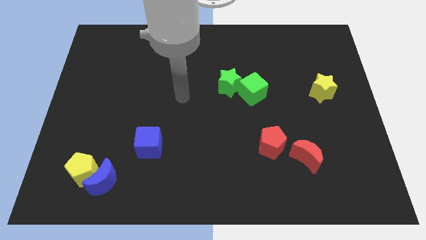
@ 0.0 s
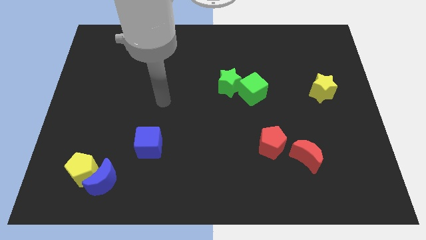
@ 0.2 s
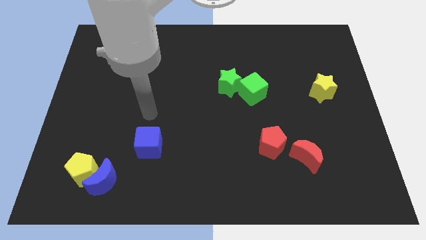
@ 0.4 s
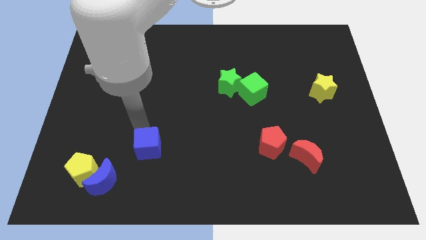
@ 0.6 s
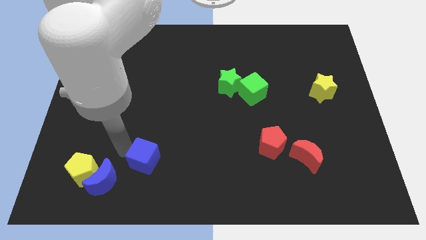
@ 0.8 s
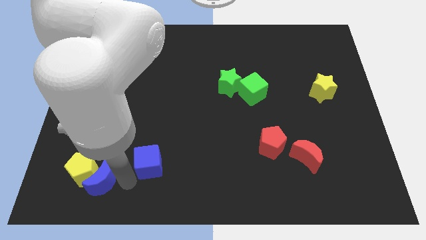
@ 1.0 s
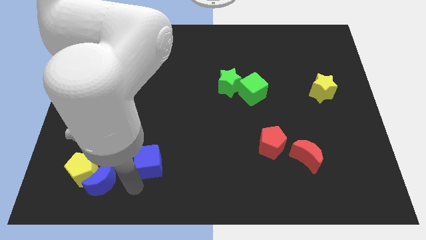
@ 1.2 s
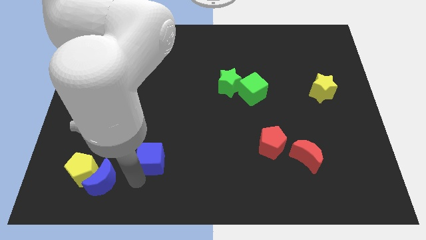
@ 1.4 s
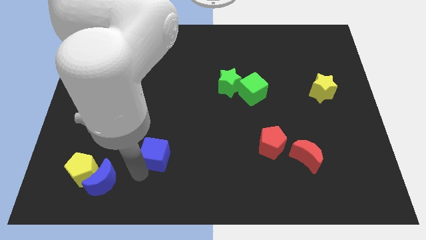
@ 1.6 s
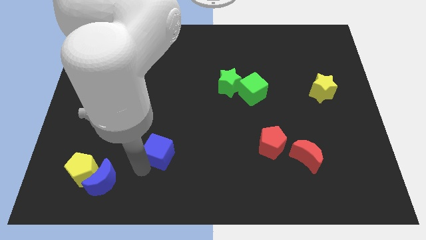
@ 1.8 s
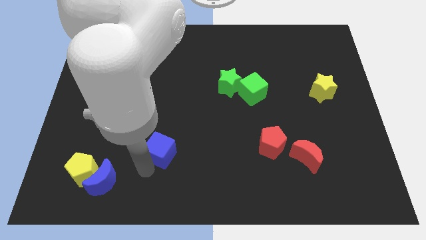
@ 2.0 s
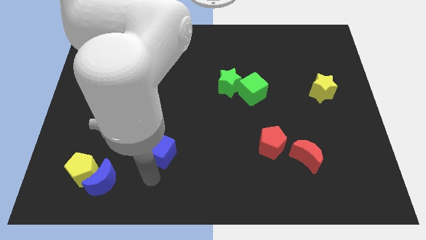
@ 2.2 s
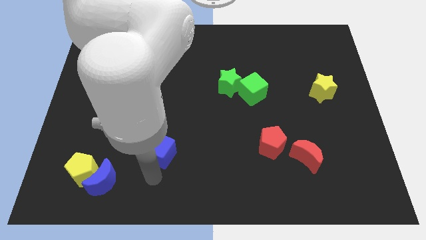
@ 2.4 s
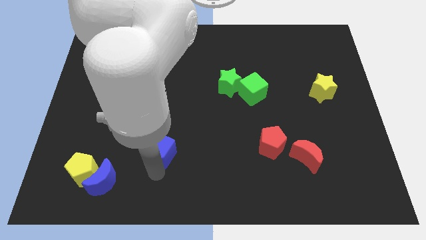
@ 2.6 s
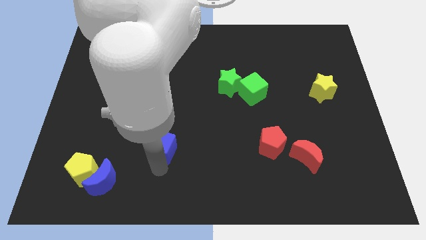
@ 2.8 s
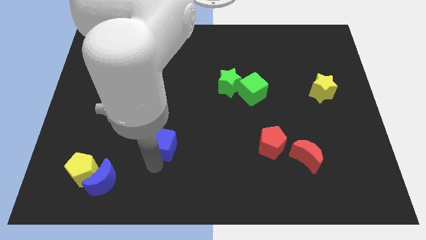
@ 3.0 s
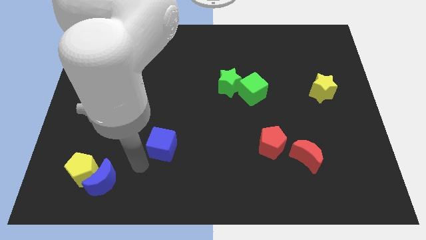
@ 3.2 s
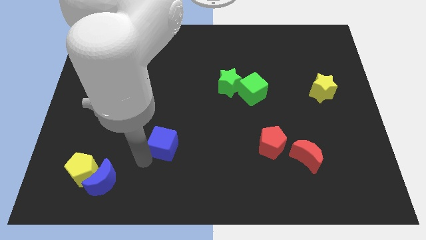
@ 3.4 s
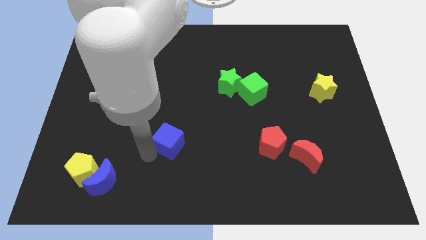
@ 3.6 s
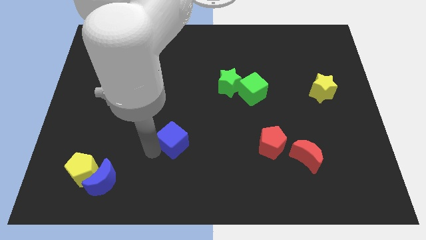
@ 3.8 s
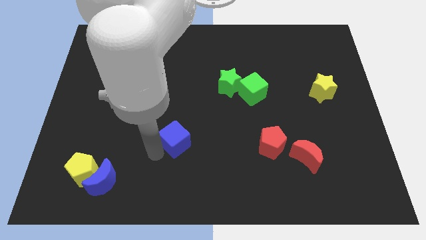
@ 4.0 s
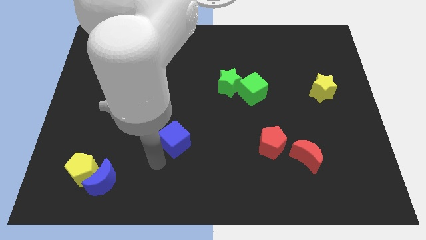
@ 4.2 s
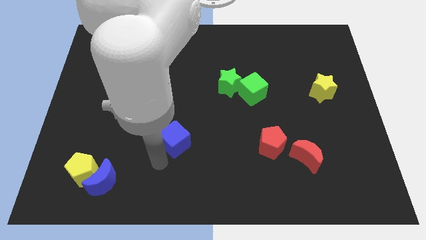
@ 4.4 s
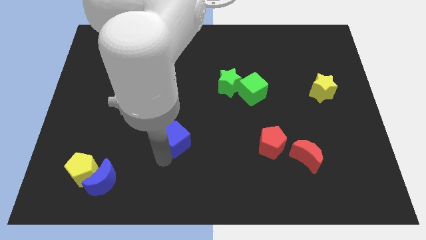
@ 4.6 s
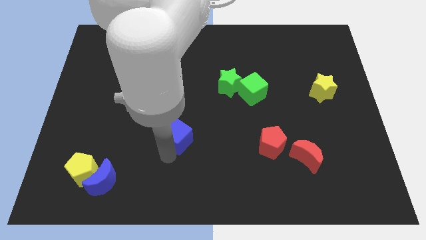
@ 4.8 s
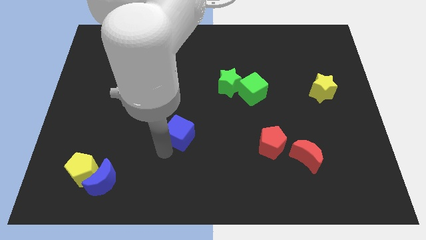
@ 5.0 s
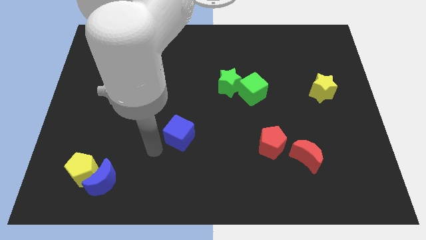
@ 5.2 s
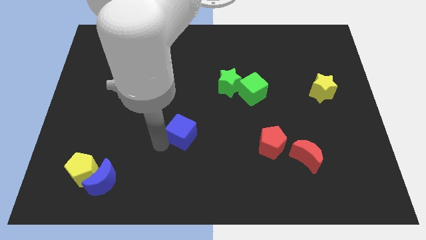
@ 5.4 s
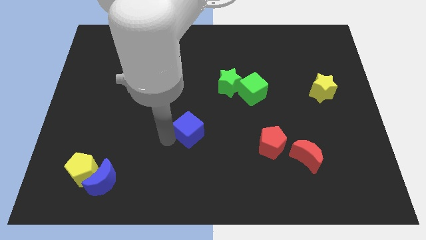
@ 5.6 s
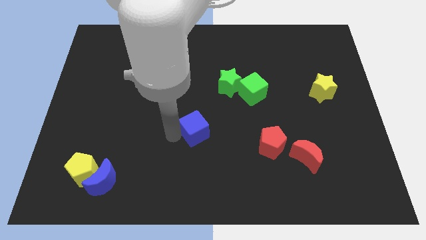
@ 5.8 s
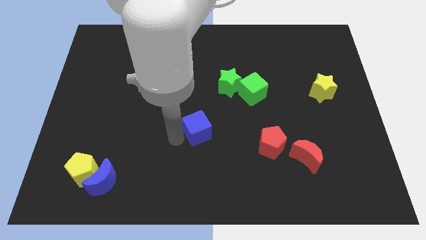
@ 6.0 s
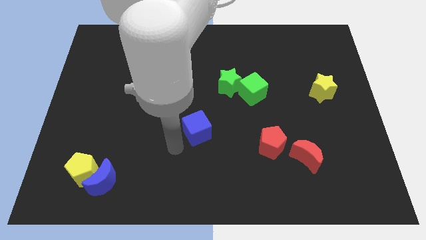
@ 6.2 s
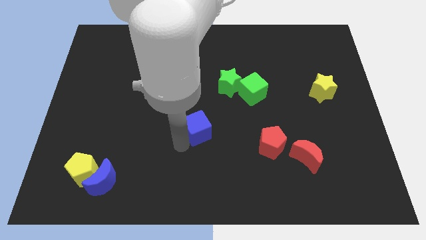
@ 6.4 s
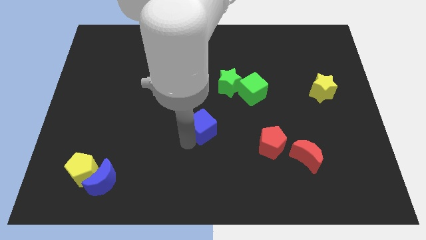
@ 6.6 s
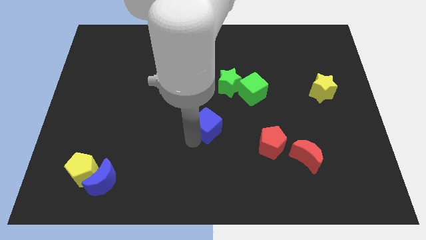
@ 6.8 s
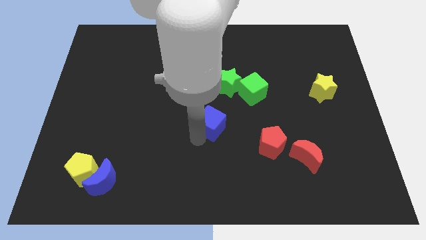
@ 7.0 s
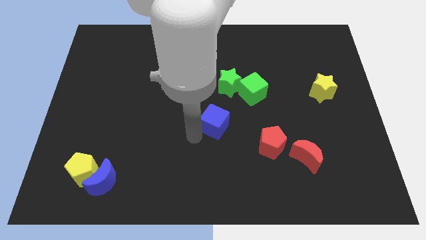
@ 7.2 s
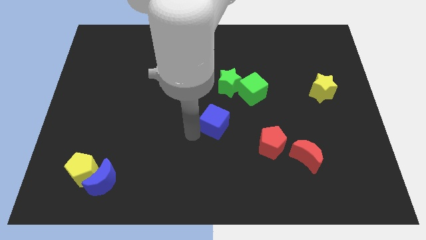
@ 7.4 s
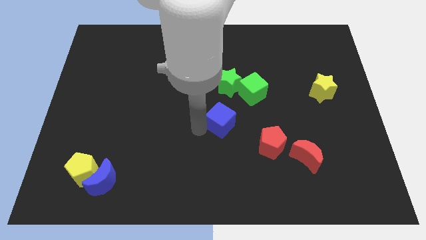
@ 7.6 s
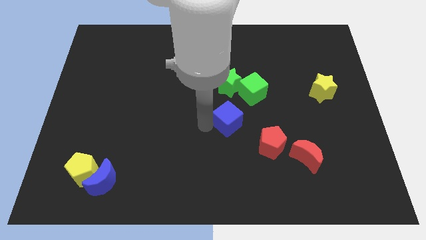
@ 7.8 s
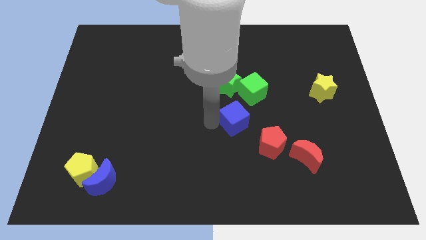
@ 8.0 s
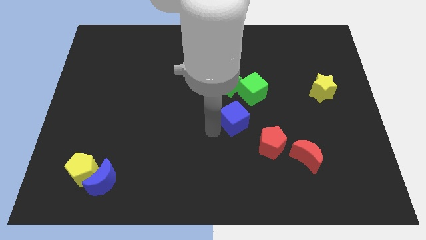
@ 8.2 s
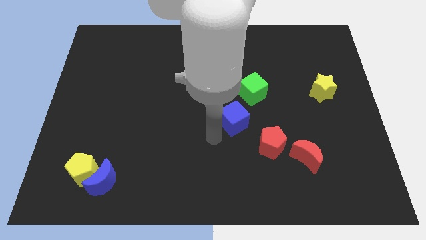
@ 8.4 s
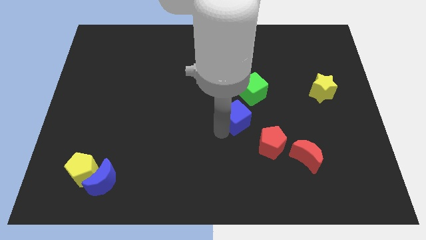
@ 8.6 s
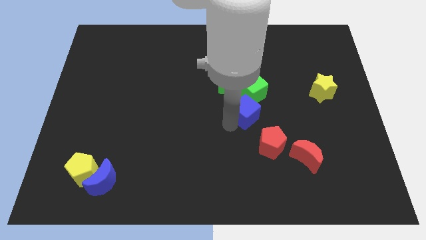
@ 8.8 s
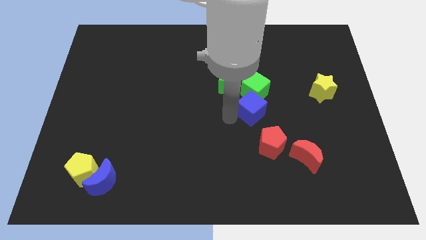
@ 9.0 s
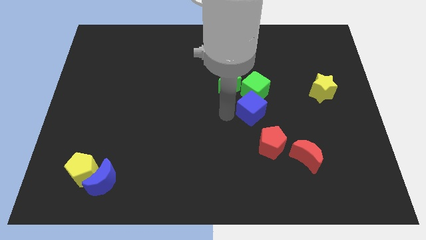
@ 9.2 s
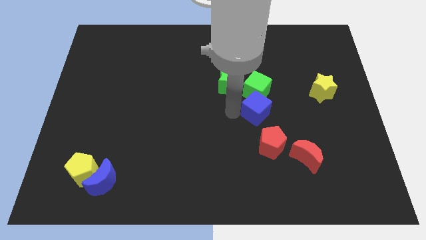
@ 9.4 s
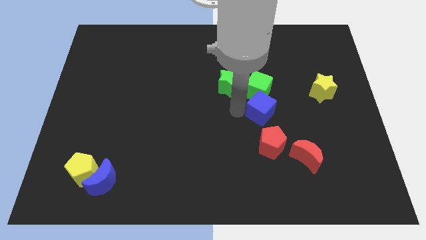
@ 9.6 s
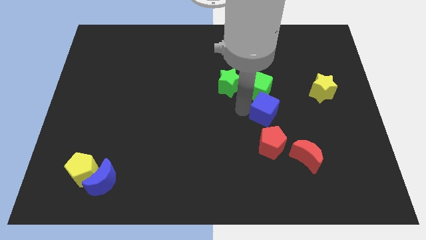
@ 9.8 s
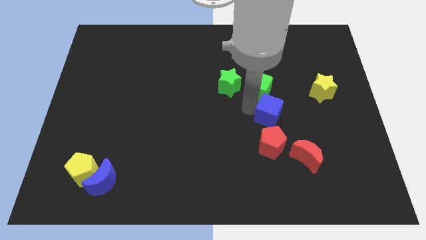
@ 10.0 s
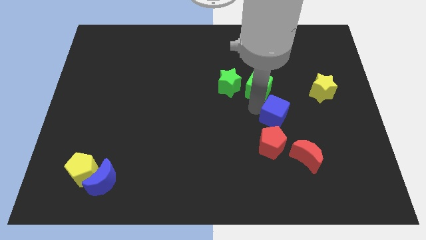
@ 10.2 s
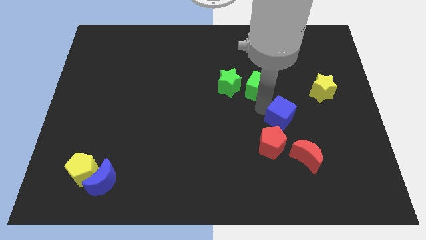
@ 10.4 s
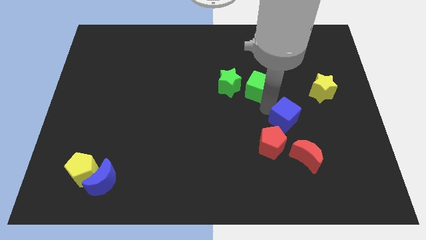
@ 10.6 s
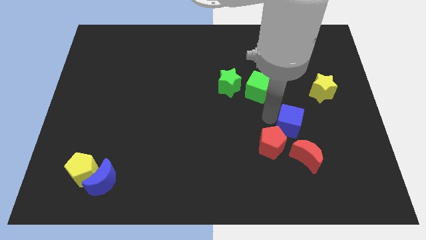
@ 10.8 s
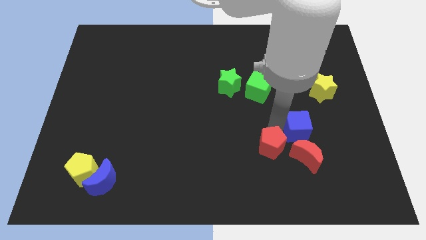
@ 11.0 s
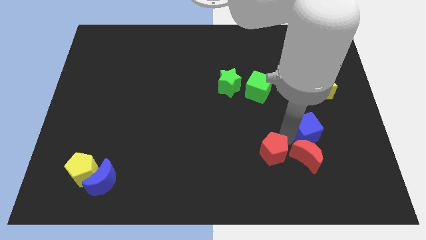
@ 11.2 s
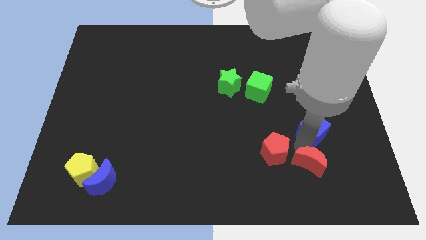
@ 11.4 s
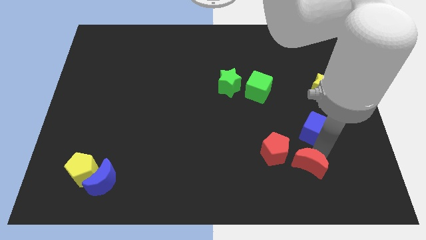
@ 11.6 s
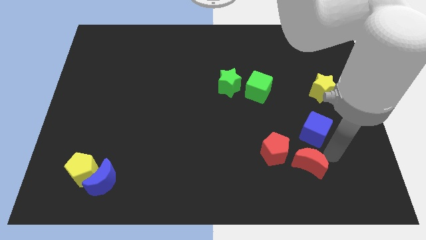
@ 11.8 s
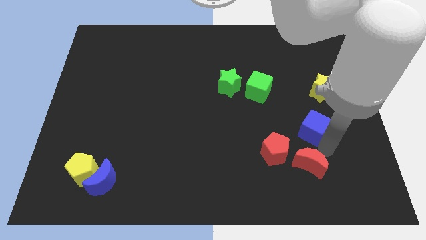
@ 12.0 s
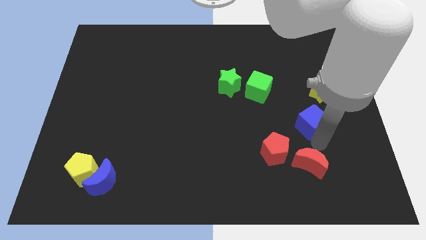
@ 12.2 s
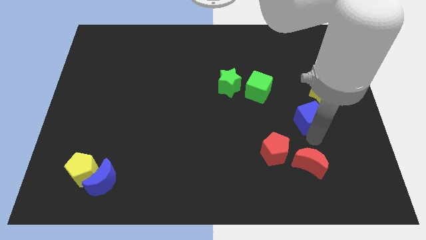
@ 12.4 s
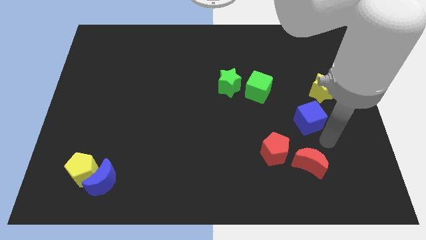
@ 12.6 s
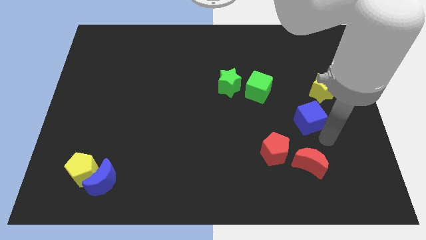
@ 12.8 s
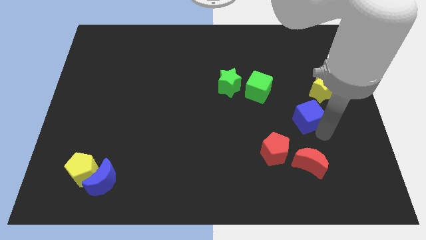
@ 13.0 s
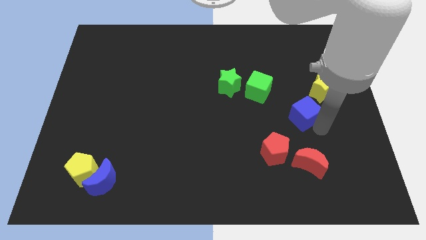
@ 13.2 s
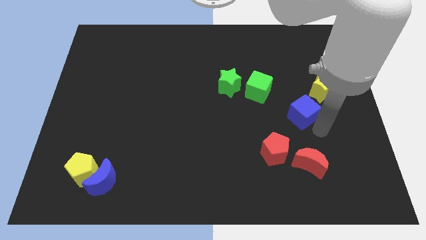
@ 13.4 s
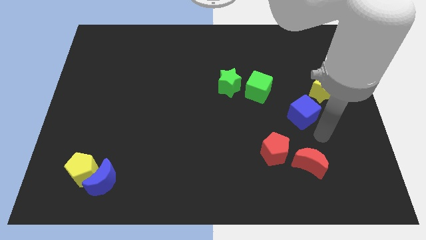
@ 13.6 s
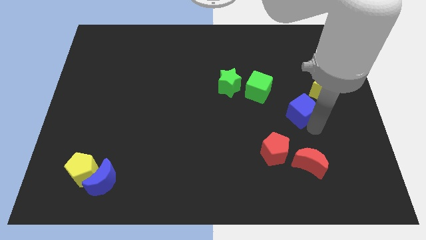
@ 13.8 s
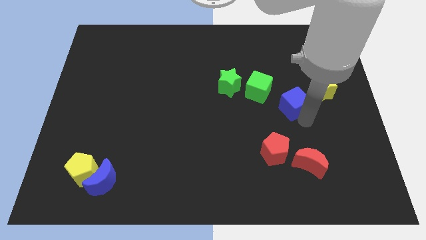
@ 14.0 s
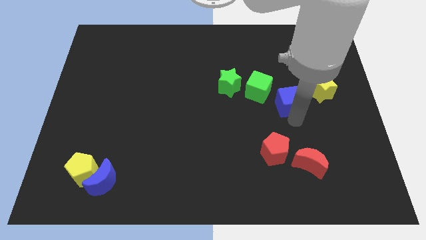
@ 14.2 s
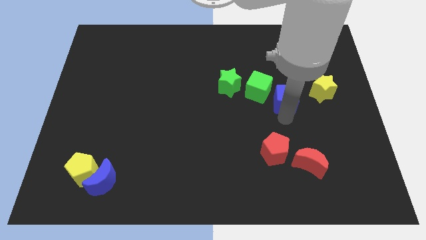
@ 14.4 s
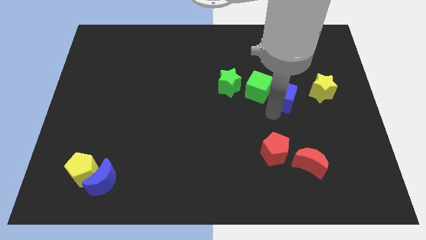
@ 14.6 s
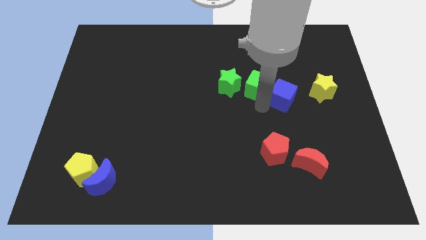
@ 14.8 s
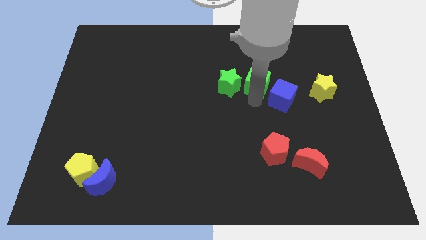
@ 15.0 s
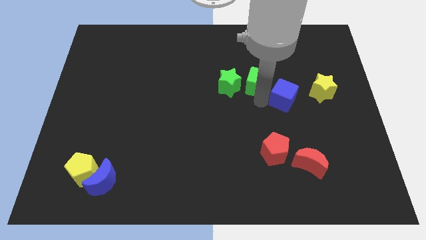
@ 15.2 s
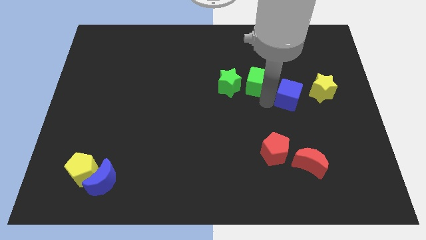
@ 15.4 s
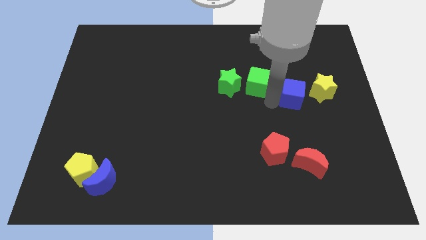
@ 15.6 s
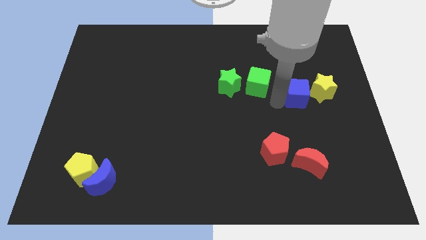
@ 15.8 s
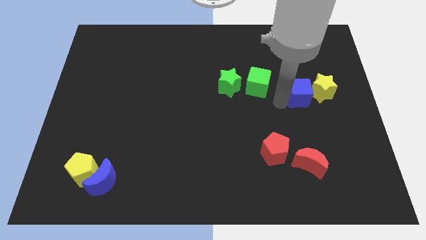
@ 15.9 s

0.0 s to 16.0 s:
slide the blue cube to the yellow star
